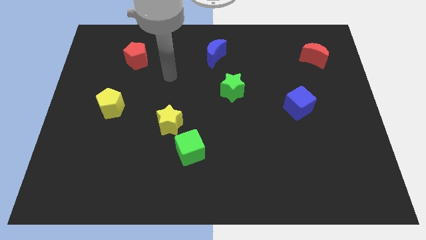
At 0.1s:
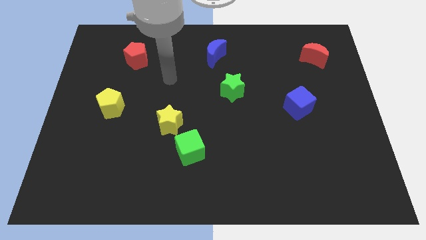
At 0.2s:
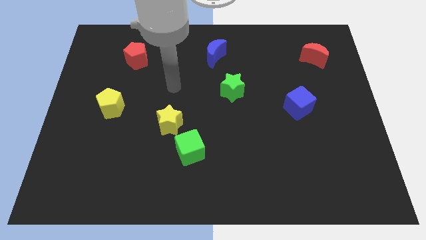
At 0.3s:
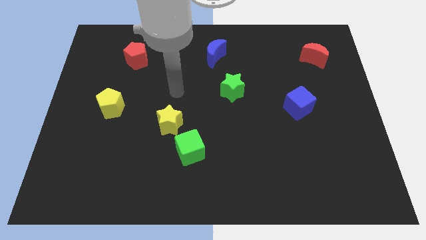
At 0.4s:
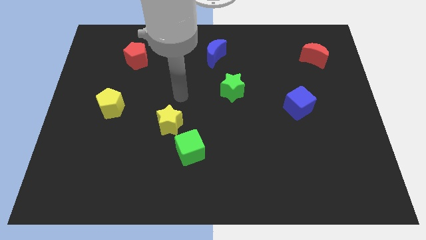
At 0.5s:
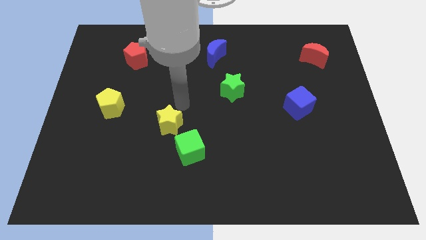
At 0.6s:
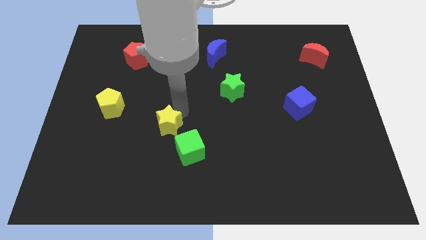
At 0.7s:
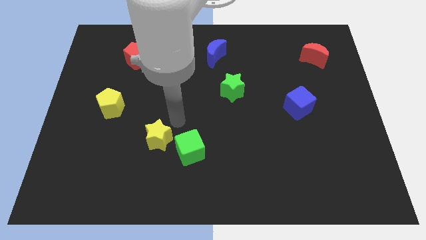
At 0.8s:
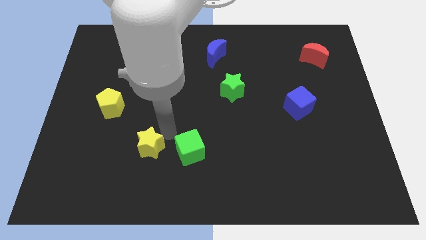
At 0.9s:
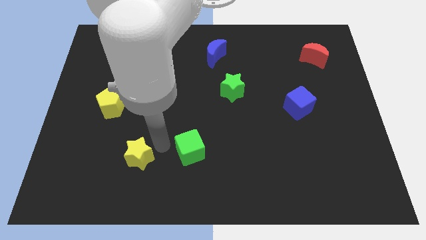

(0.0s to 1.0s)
pull the green cube apart from the yellow star

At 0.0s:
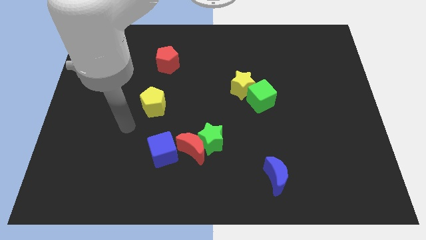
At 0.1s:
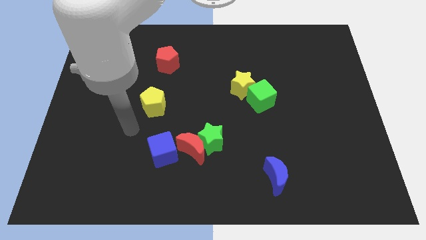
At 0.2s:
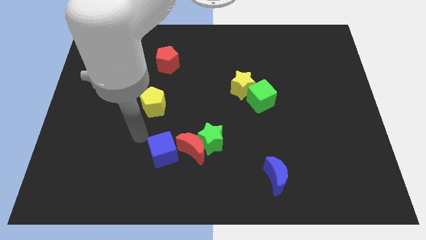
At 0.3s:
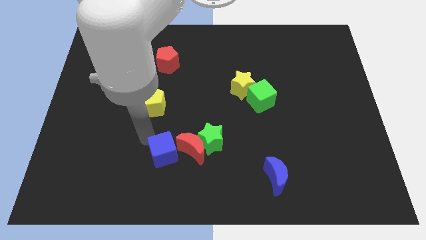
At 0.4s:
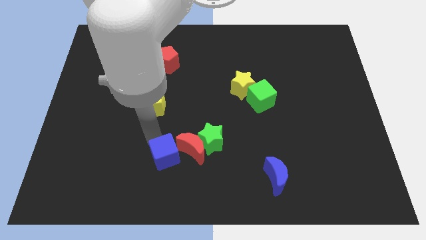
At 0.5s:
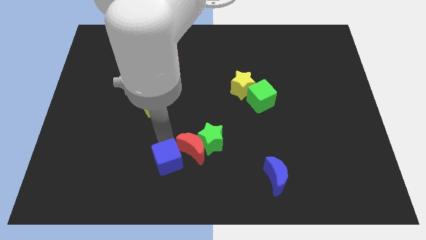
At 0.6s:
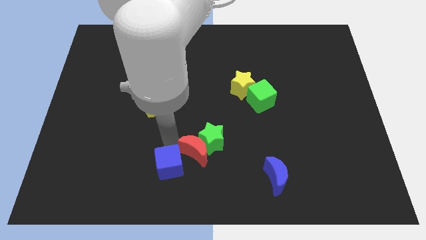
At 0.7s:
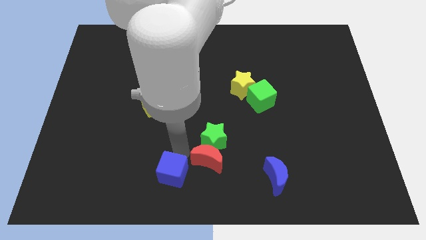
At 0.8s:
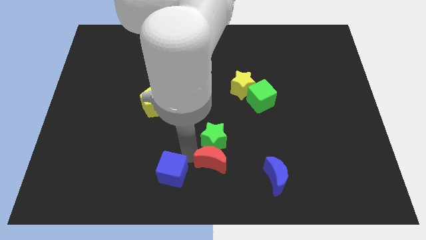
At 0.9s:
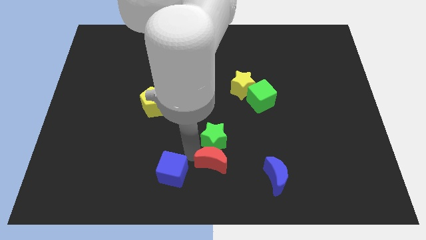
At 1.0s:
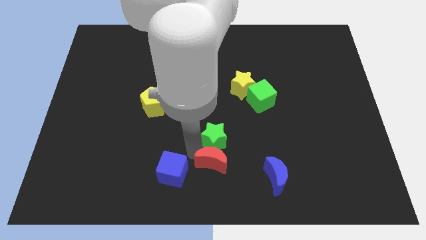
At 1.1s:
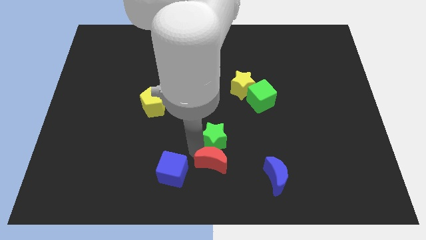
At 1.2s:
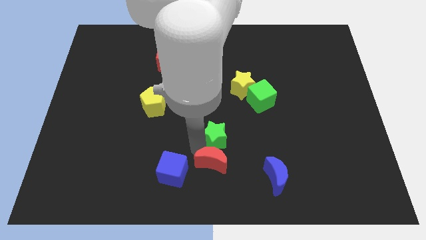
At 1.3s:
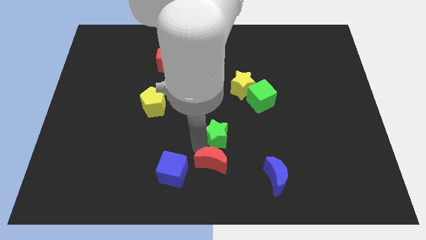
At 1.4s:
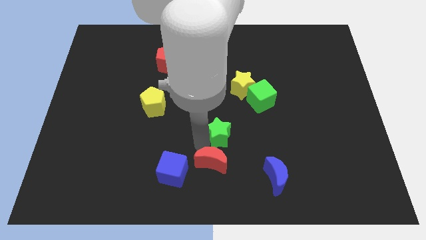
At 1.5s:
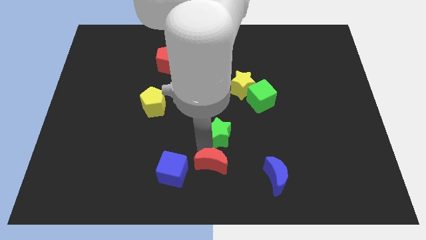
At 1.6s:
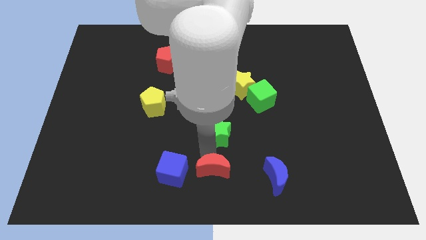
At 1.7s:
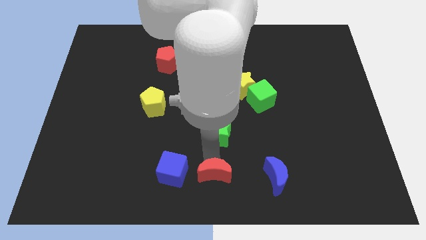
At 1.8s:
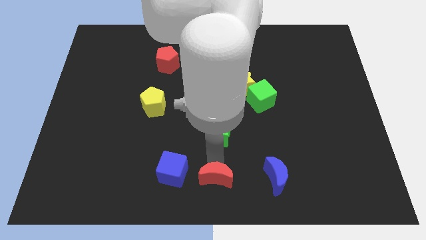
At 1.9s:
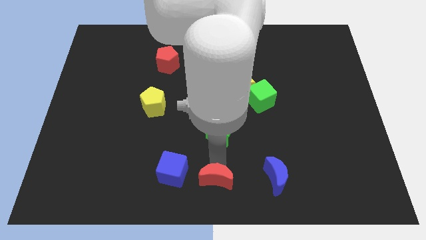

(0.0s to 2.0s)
move the green star away from the red moon

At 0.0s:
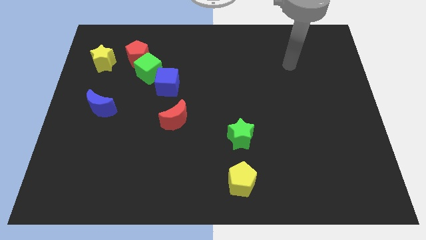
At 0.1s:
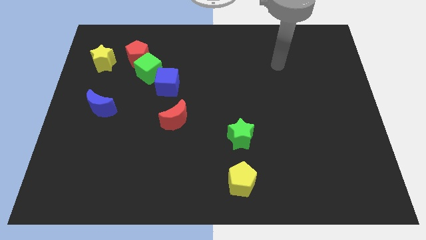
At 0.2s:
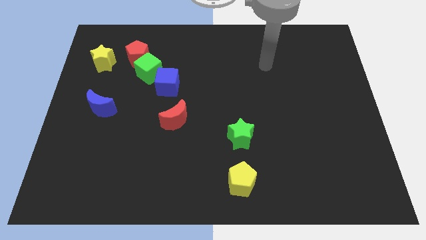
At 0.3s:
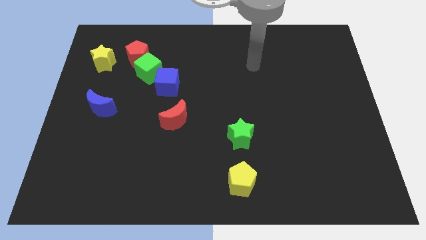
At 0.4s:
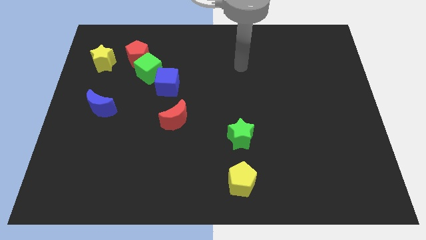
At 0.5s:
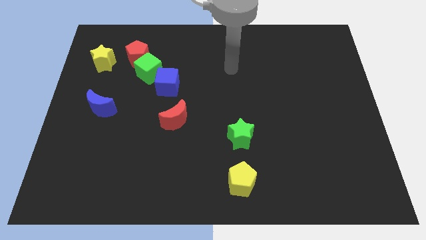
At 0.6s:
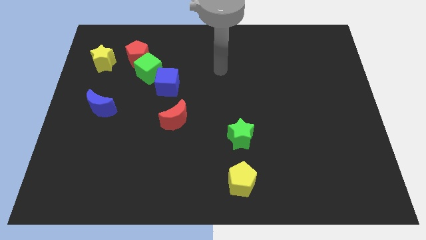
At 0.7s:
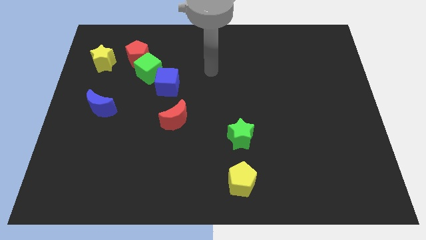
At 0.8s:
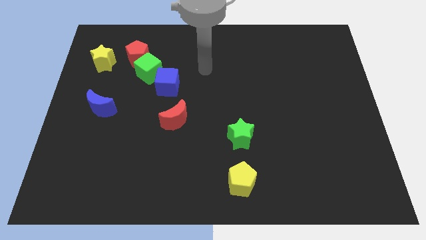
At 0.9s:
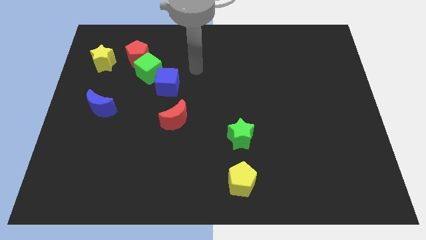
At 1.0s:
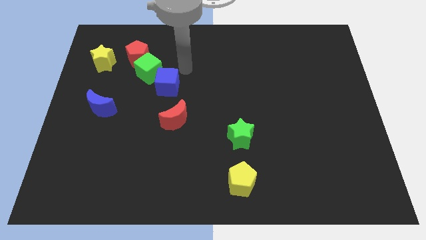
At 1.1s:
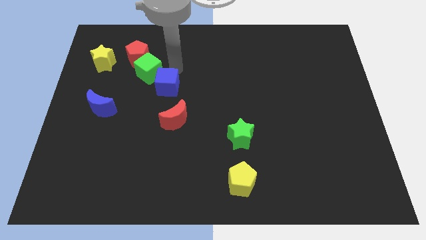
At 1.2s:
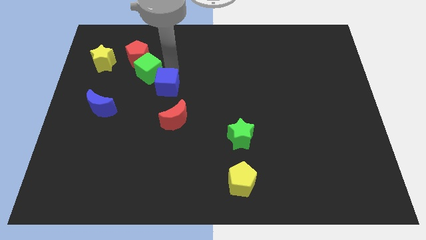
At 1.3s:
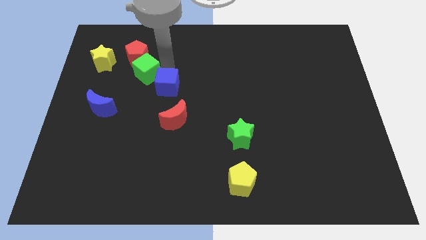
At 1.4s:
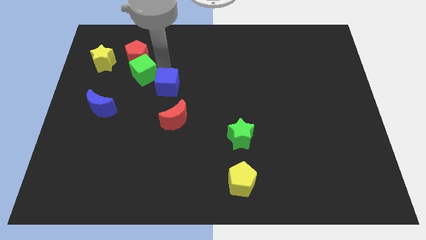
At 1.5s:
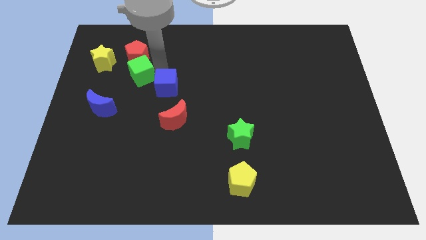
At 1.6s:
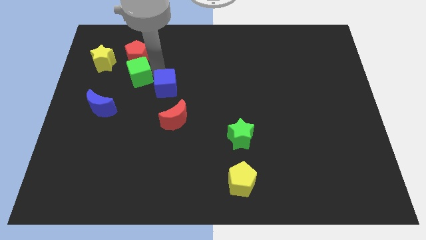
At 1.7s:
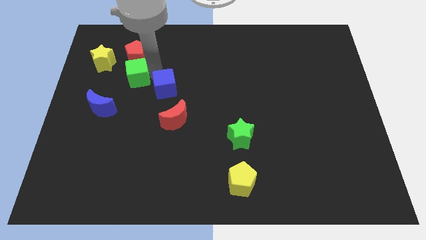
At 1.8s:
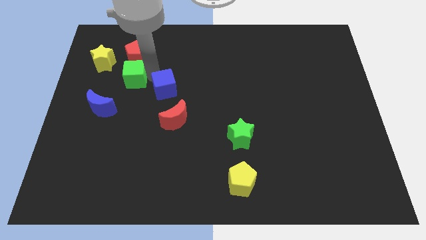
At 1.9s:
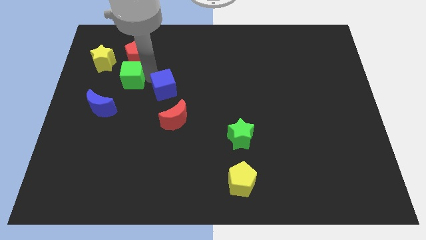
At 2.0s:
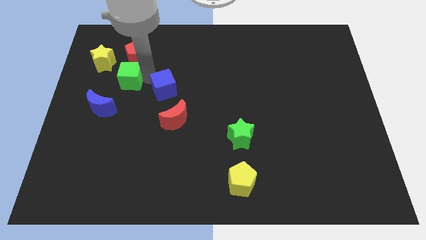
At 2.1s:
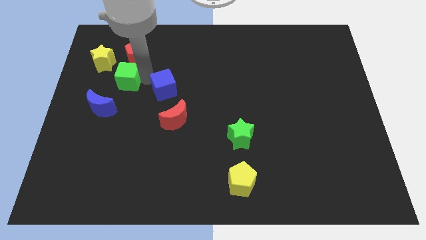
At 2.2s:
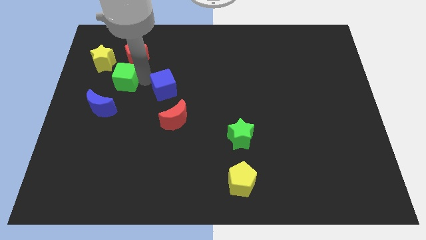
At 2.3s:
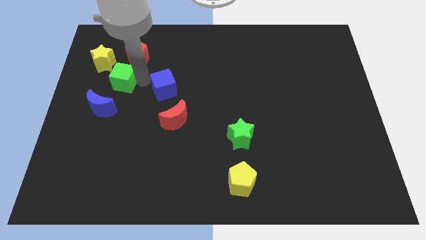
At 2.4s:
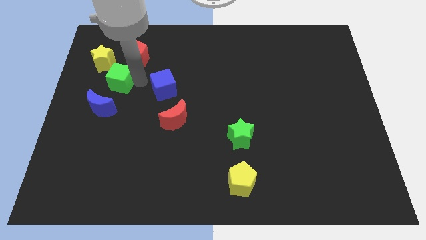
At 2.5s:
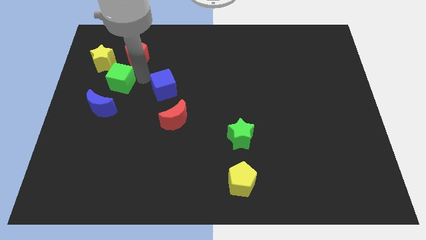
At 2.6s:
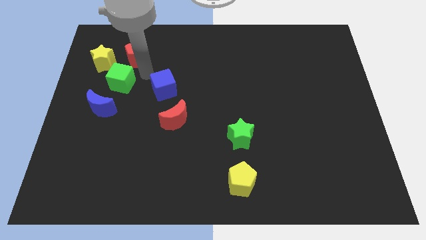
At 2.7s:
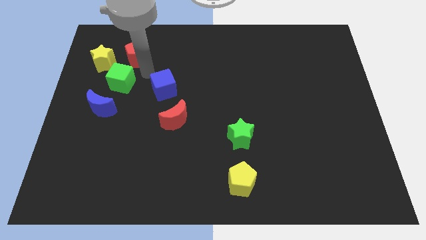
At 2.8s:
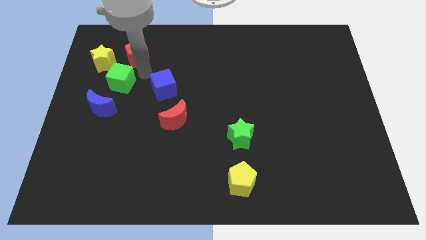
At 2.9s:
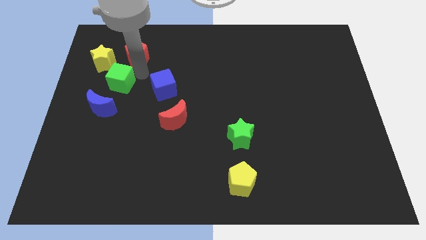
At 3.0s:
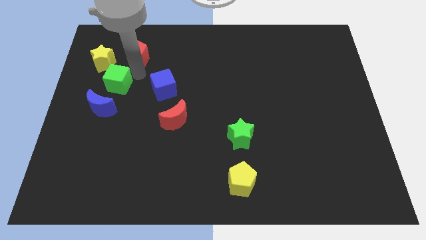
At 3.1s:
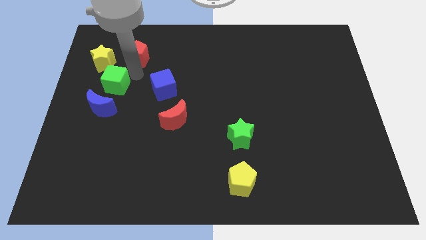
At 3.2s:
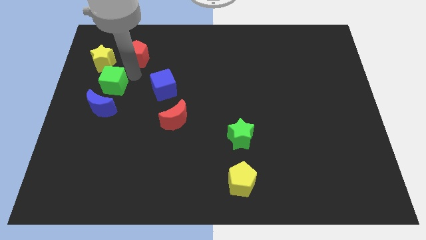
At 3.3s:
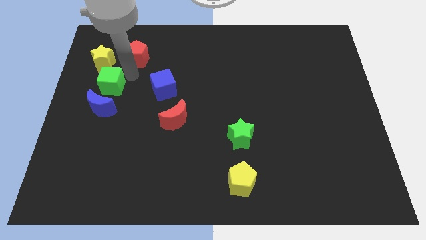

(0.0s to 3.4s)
move the green cube away from the red pentagon and blue cube

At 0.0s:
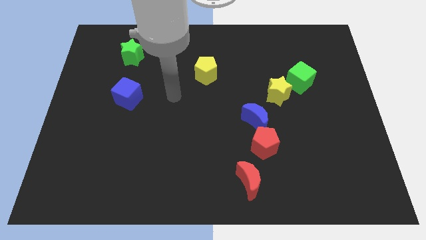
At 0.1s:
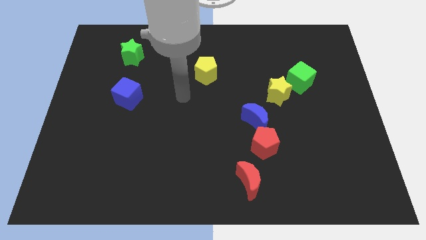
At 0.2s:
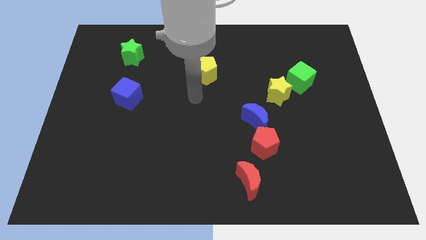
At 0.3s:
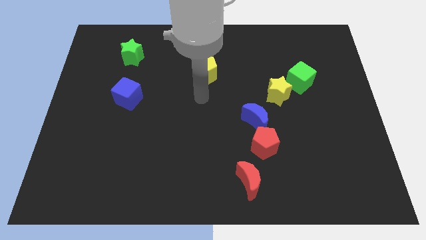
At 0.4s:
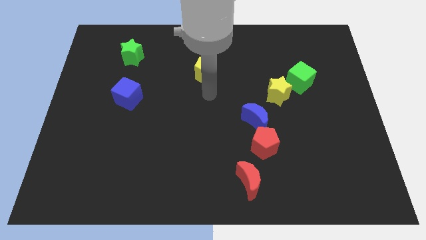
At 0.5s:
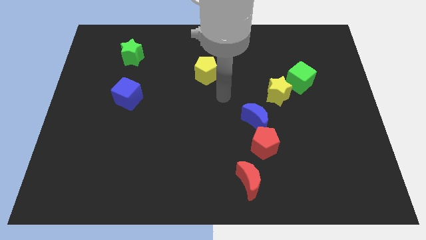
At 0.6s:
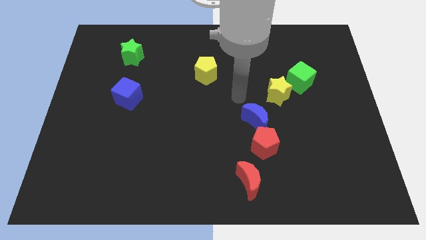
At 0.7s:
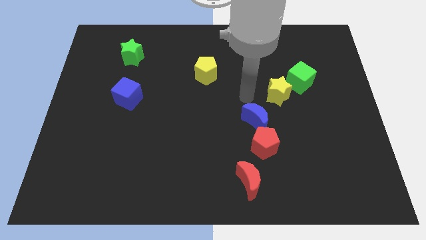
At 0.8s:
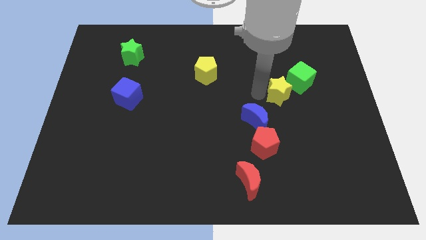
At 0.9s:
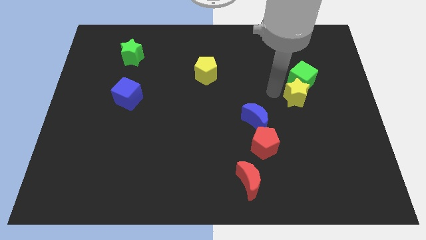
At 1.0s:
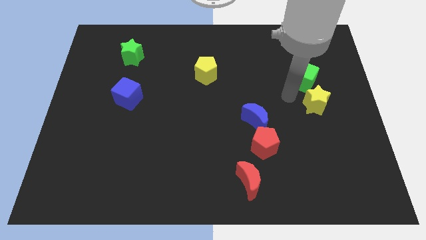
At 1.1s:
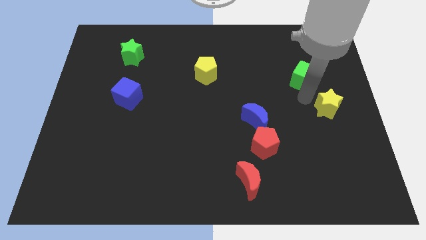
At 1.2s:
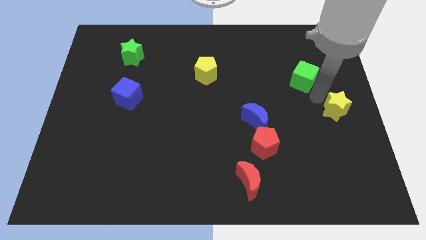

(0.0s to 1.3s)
move the green cube away from the yellow star

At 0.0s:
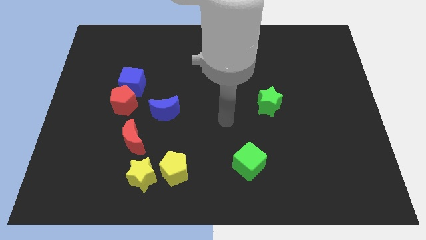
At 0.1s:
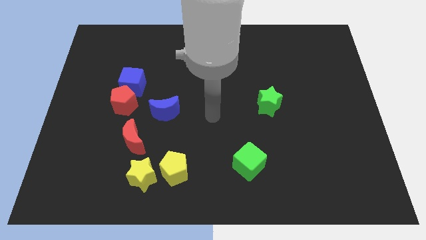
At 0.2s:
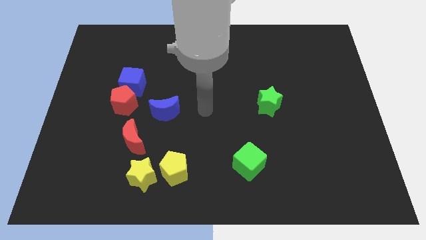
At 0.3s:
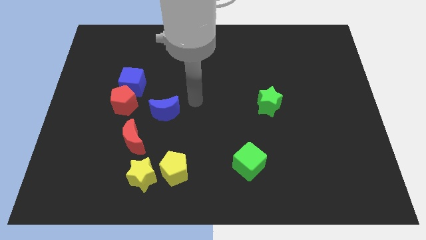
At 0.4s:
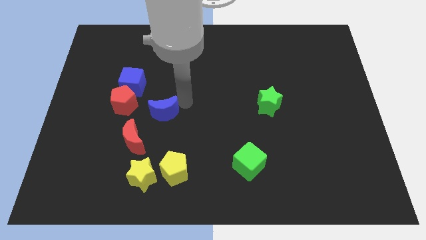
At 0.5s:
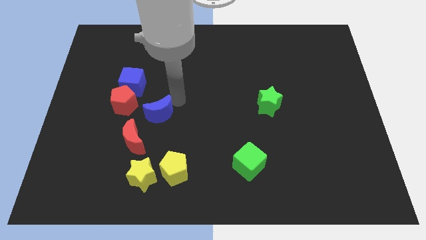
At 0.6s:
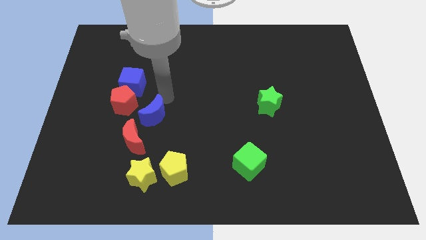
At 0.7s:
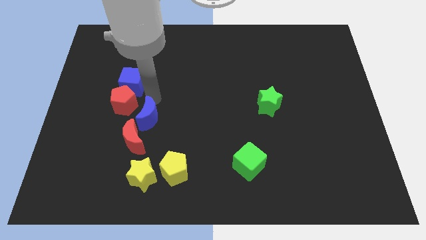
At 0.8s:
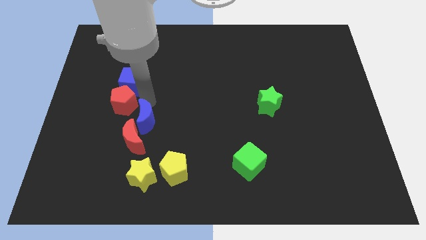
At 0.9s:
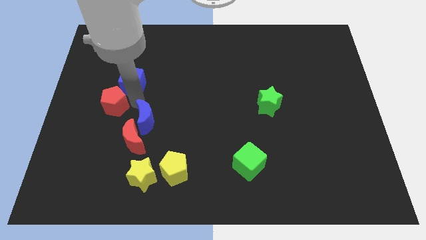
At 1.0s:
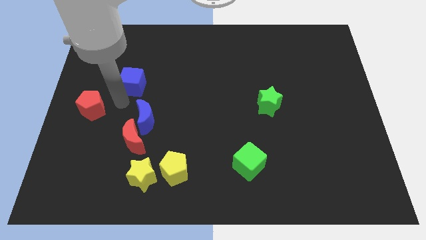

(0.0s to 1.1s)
pull the blue cube apart from the red pentagon

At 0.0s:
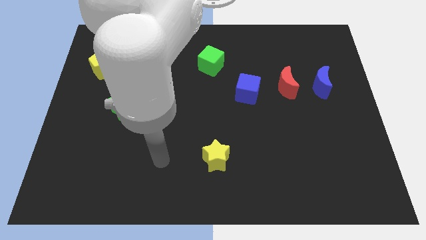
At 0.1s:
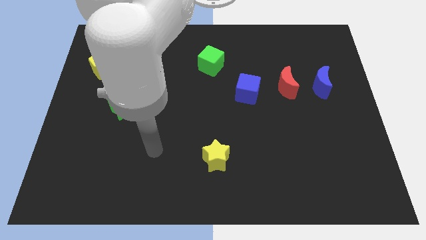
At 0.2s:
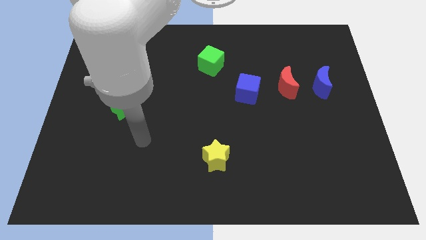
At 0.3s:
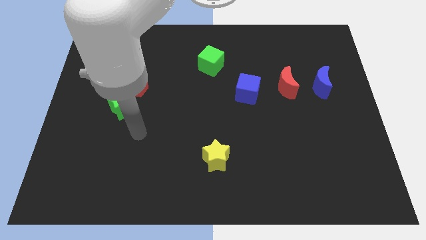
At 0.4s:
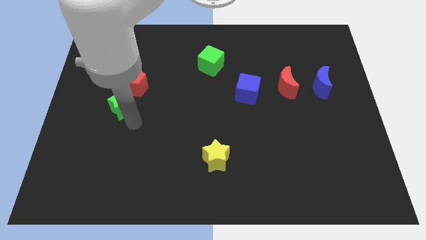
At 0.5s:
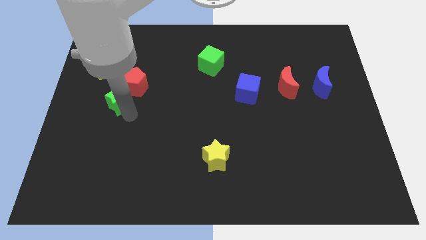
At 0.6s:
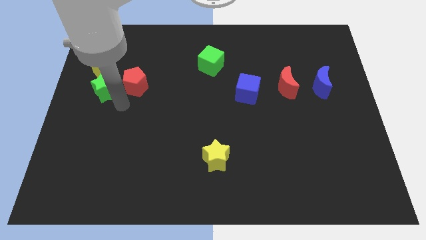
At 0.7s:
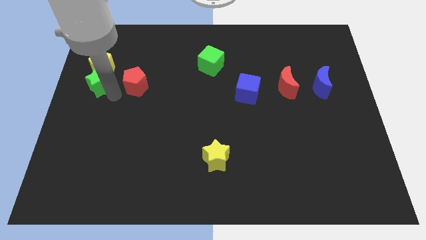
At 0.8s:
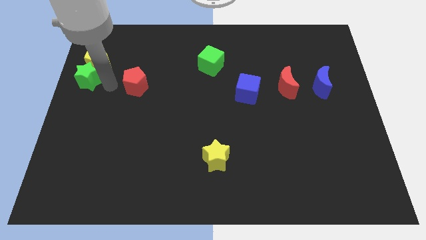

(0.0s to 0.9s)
pull the red pentagon apart from the green star
